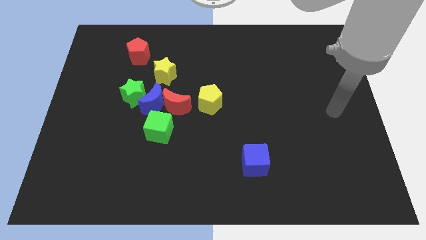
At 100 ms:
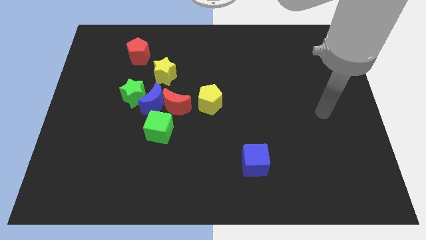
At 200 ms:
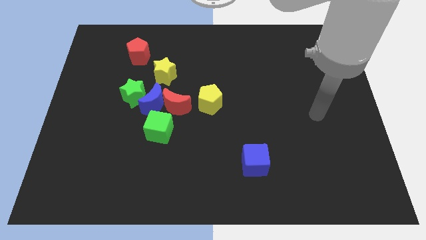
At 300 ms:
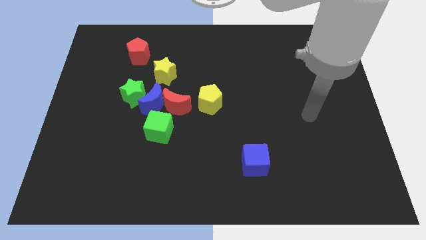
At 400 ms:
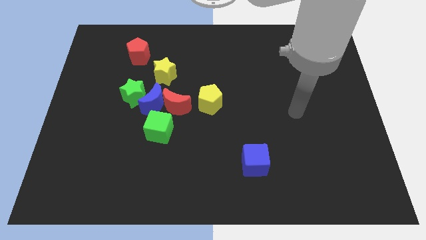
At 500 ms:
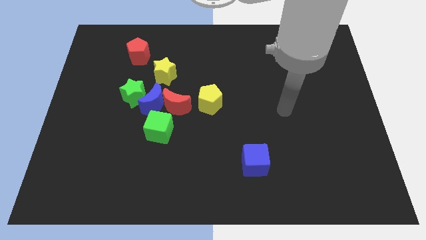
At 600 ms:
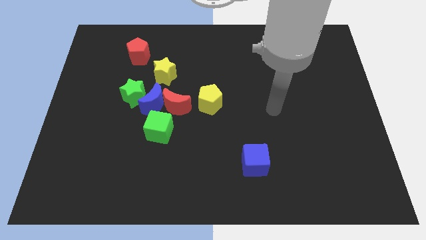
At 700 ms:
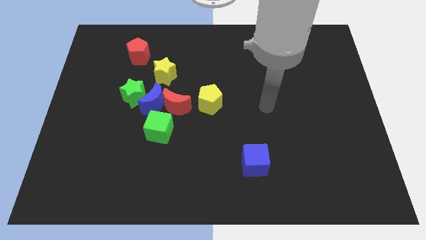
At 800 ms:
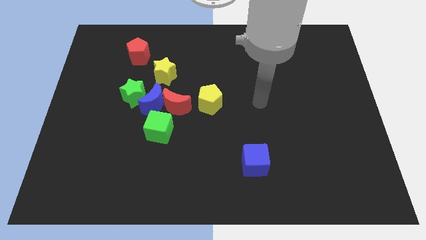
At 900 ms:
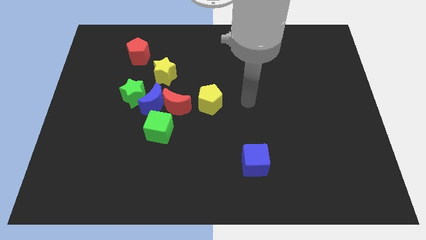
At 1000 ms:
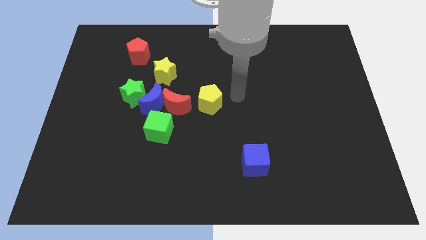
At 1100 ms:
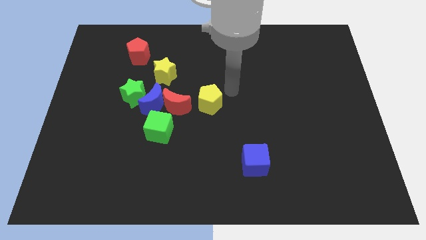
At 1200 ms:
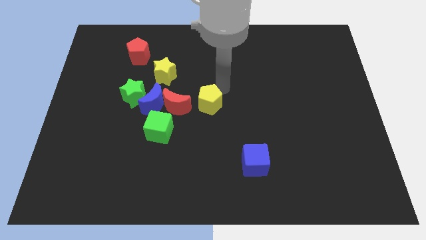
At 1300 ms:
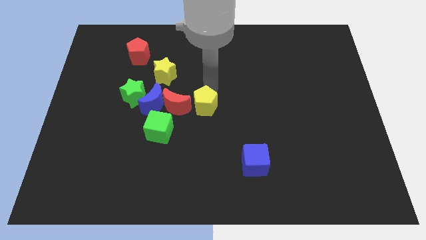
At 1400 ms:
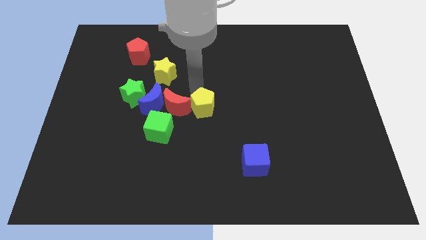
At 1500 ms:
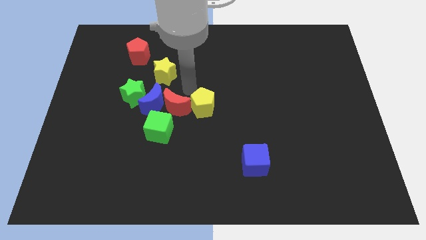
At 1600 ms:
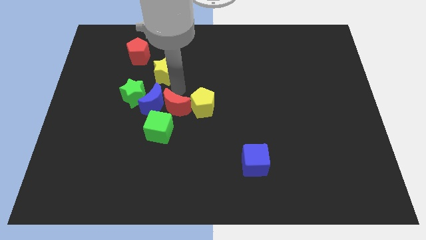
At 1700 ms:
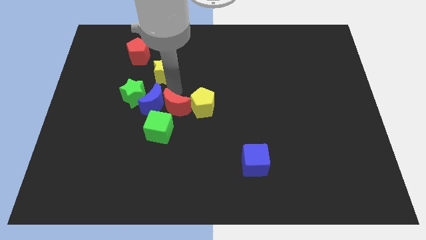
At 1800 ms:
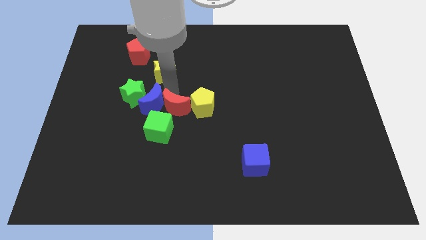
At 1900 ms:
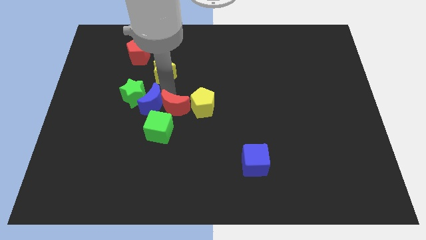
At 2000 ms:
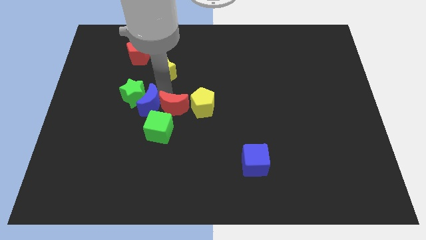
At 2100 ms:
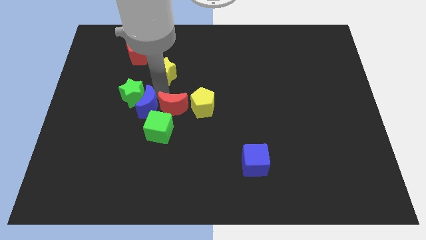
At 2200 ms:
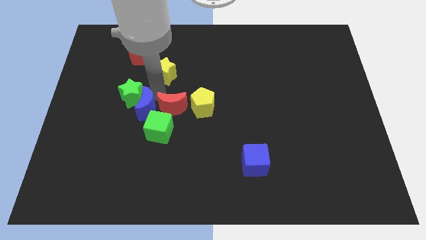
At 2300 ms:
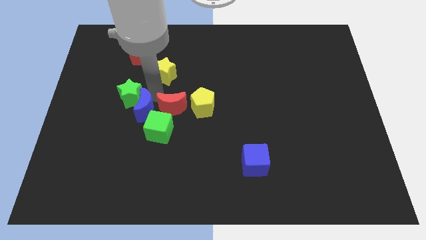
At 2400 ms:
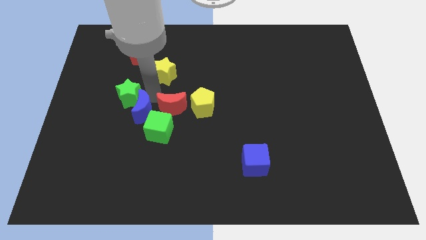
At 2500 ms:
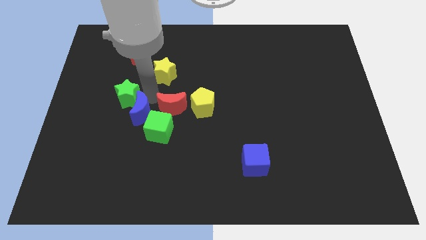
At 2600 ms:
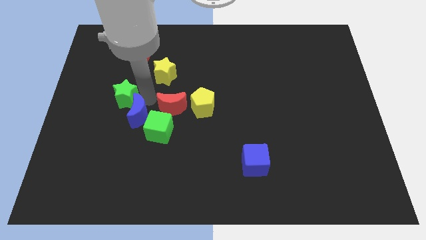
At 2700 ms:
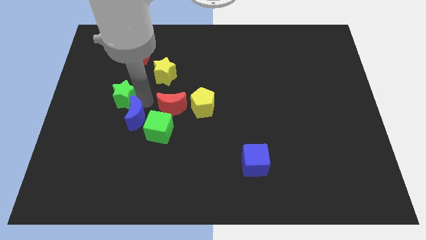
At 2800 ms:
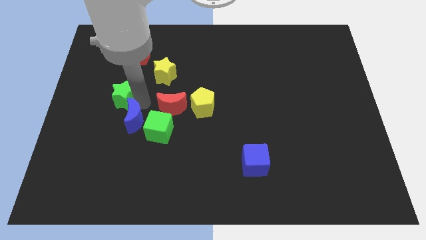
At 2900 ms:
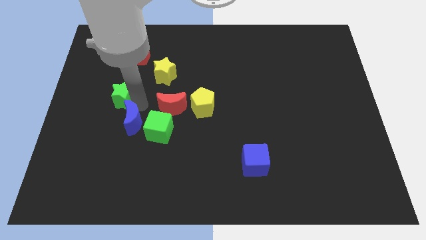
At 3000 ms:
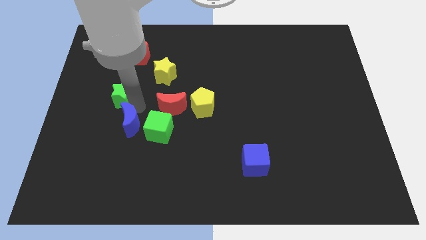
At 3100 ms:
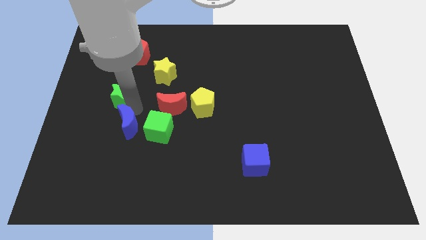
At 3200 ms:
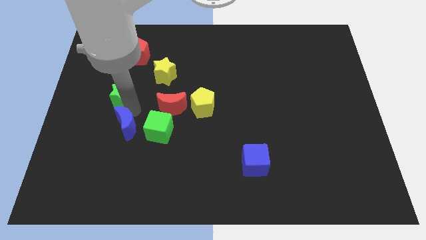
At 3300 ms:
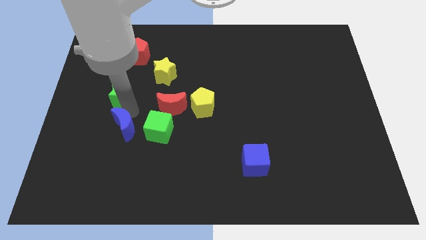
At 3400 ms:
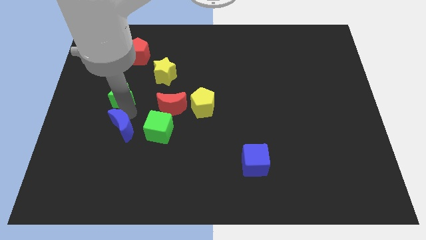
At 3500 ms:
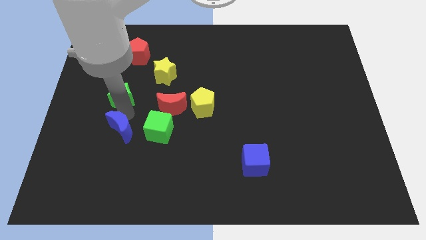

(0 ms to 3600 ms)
separate the blue moon from the group

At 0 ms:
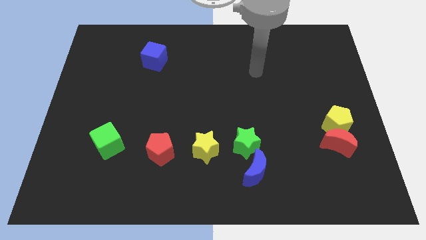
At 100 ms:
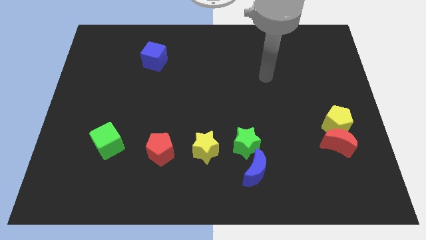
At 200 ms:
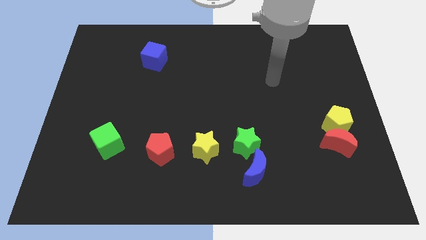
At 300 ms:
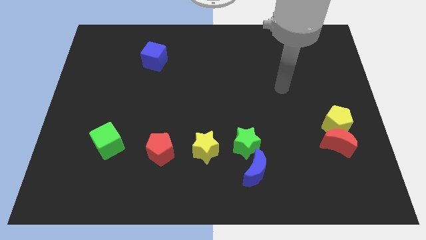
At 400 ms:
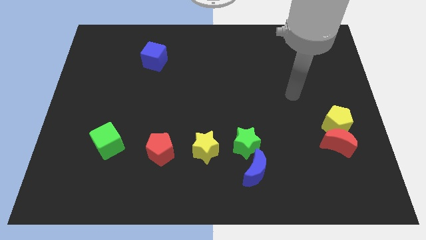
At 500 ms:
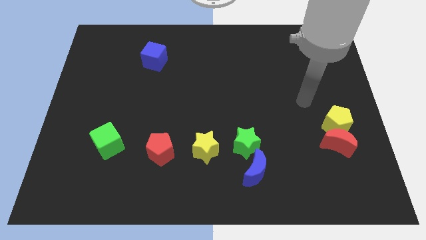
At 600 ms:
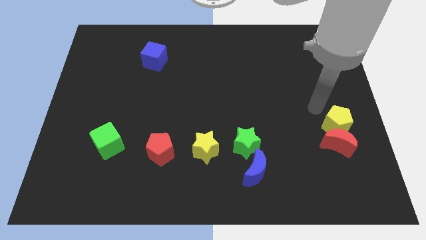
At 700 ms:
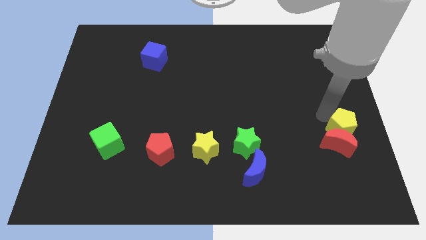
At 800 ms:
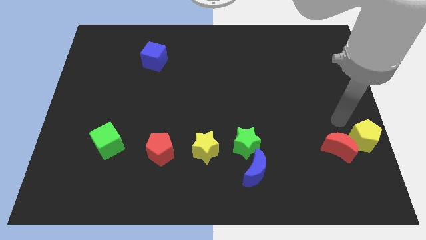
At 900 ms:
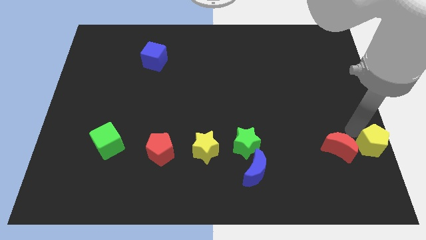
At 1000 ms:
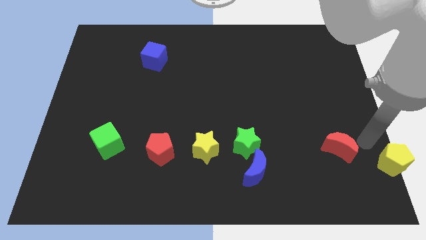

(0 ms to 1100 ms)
separate the red moon from the yellow pentagon

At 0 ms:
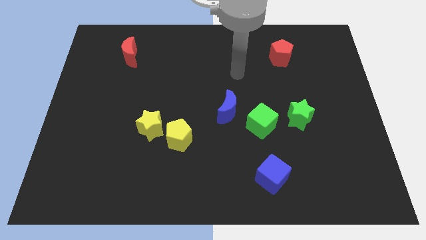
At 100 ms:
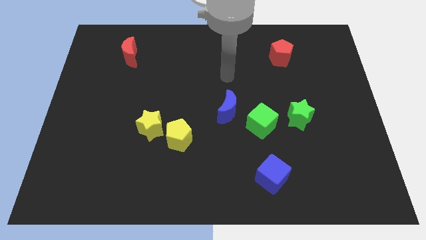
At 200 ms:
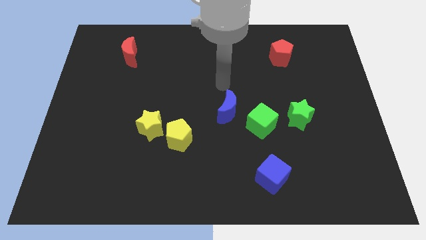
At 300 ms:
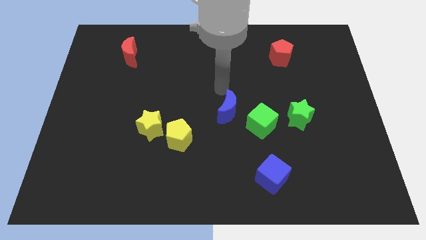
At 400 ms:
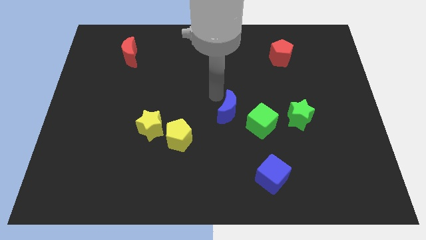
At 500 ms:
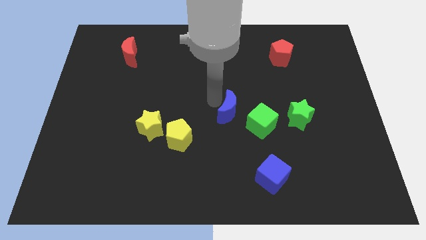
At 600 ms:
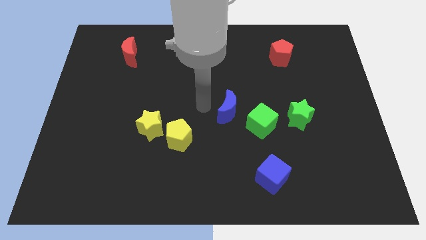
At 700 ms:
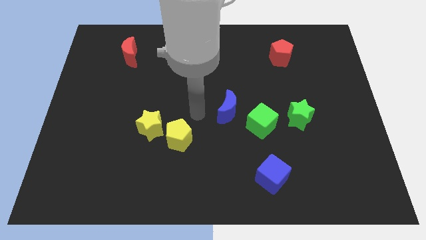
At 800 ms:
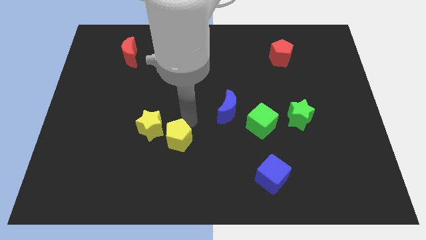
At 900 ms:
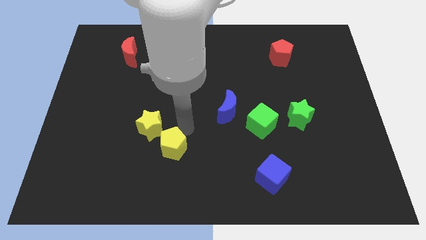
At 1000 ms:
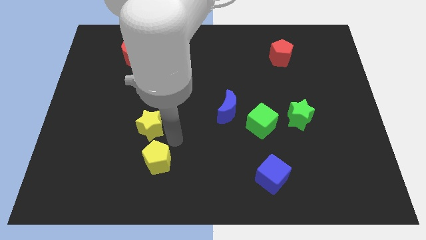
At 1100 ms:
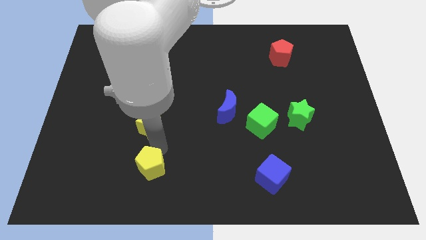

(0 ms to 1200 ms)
separate the yellow star from the yellow pentagon

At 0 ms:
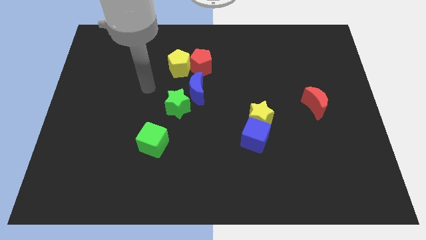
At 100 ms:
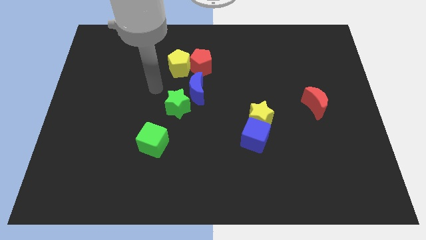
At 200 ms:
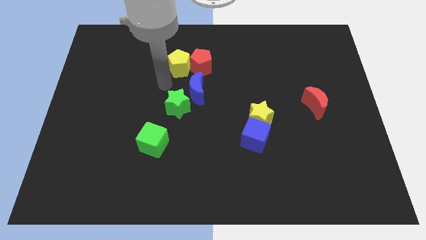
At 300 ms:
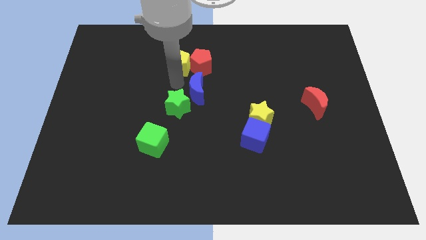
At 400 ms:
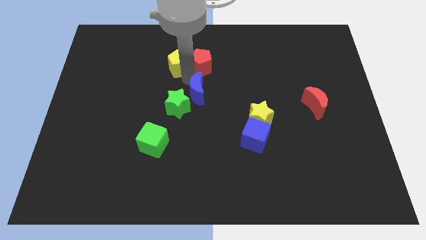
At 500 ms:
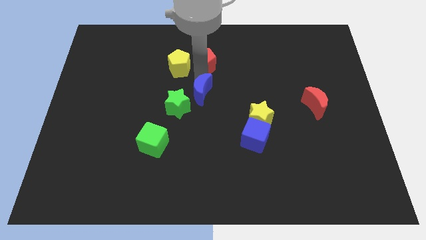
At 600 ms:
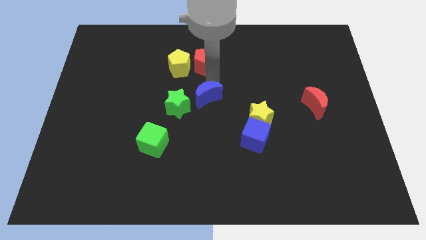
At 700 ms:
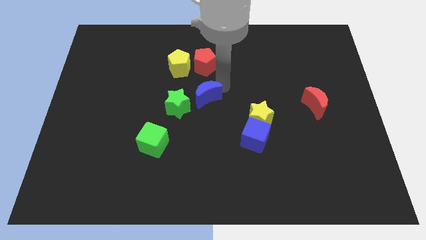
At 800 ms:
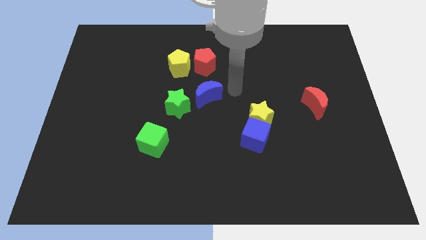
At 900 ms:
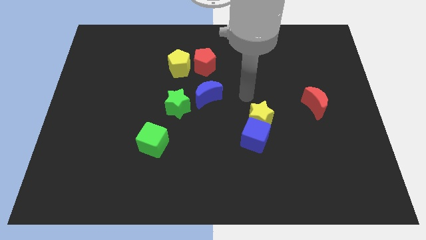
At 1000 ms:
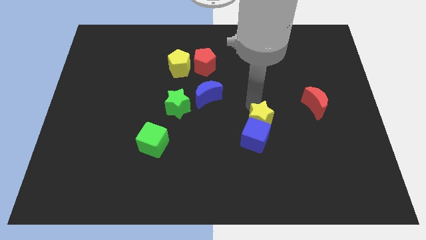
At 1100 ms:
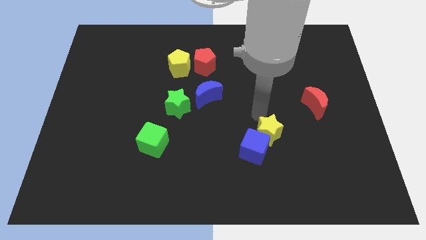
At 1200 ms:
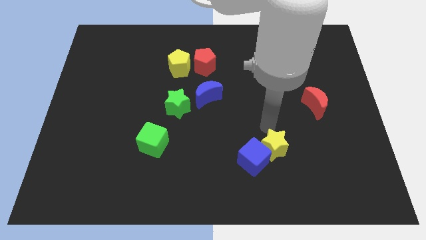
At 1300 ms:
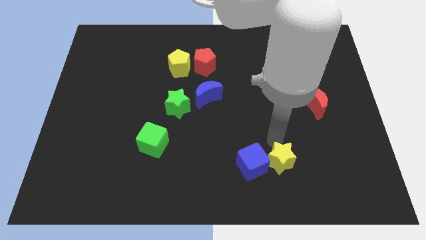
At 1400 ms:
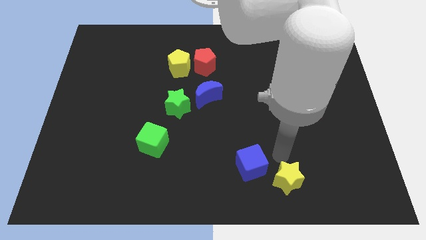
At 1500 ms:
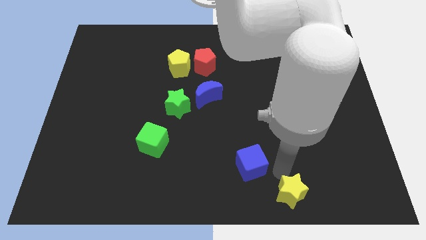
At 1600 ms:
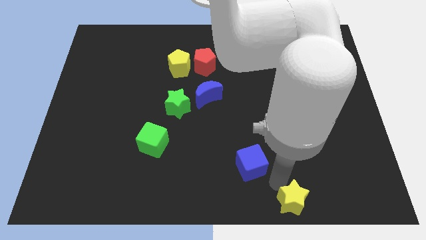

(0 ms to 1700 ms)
separate the blue cube from the yellow star

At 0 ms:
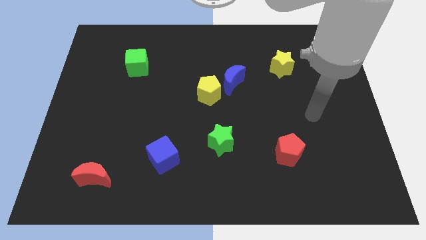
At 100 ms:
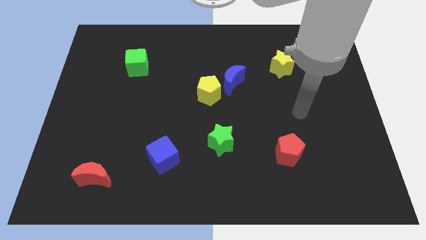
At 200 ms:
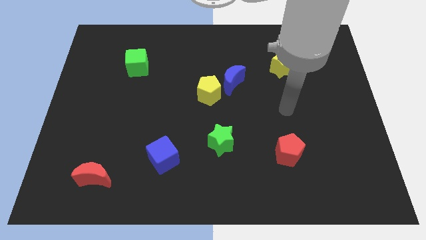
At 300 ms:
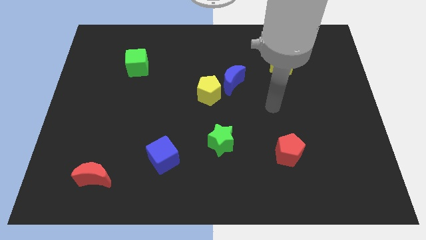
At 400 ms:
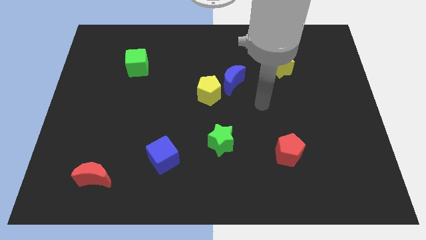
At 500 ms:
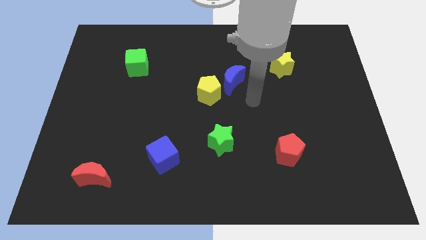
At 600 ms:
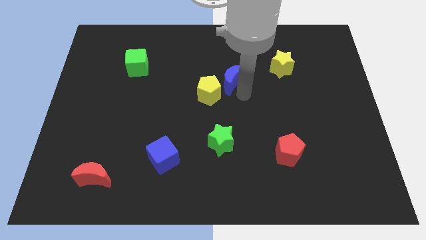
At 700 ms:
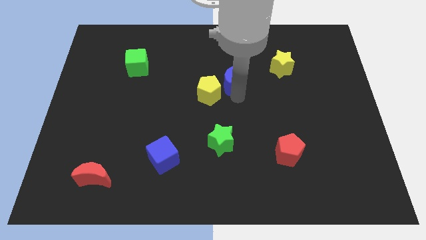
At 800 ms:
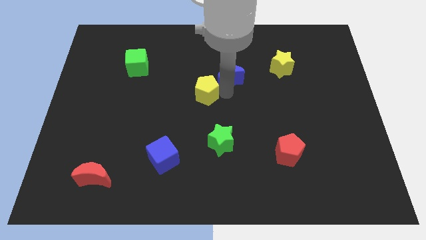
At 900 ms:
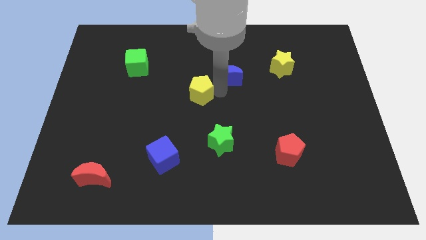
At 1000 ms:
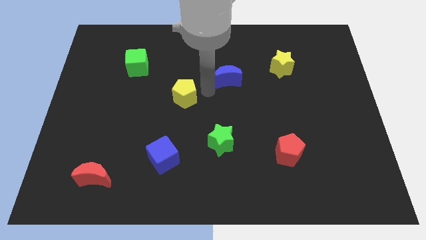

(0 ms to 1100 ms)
move the blue moon away from the yellow pentagon

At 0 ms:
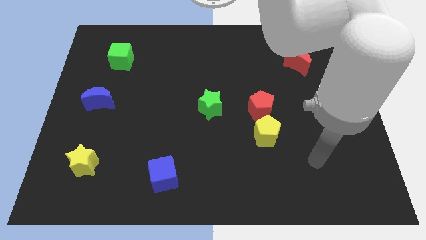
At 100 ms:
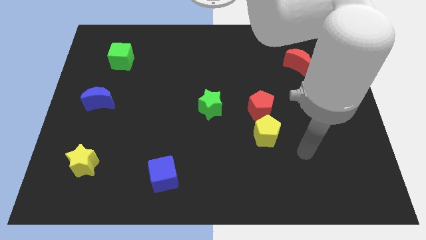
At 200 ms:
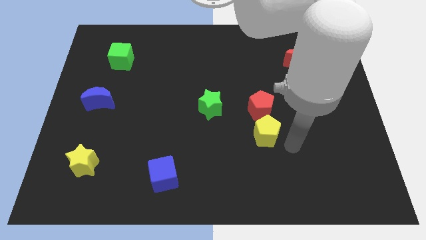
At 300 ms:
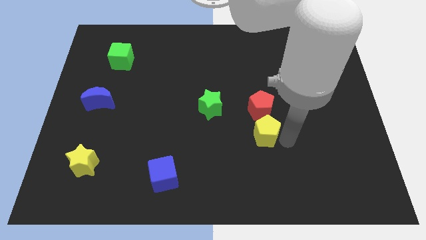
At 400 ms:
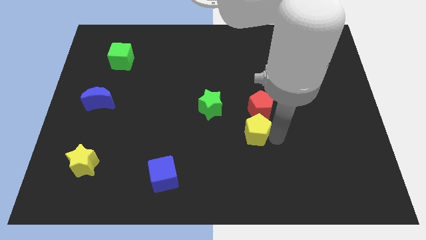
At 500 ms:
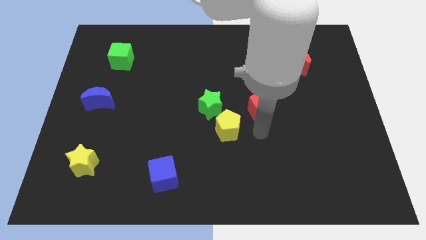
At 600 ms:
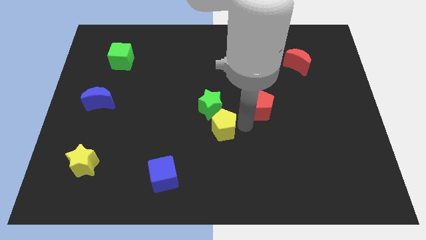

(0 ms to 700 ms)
separate the red pentagon from the yellow pentagon
